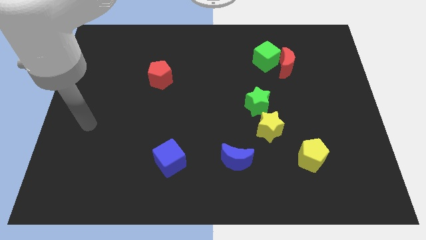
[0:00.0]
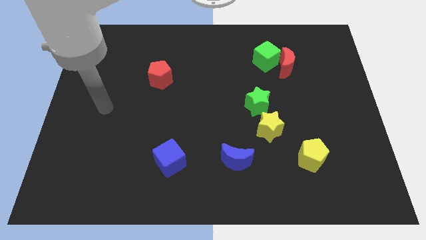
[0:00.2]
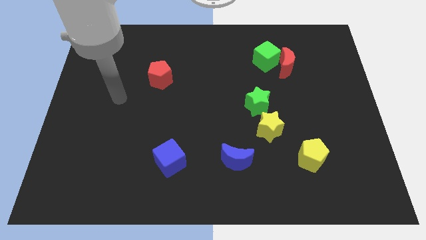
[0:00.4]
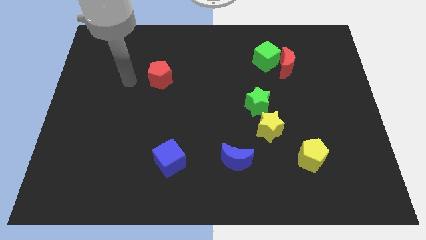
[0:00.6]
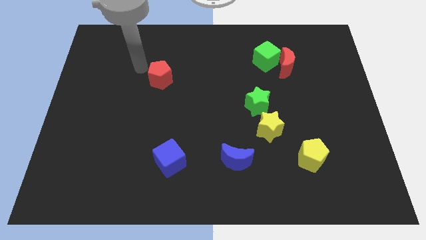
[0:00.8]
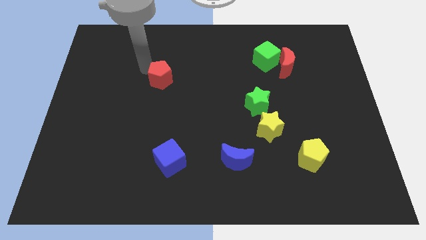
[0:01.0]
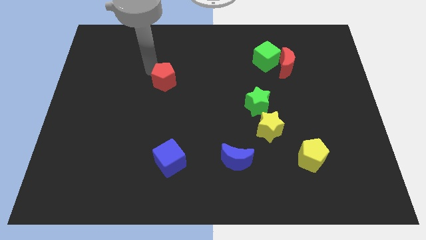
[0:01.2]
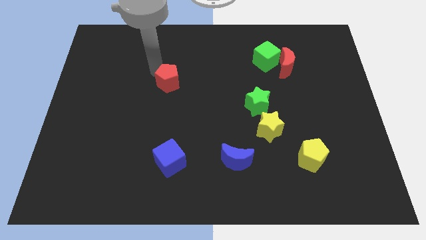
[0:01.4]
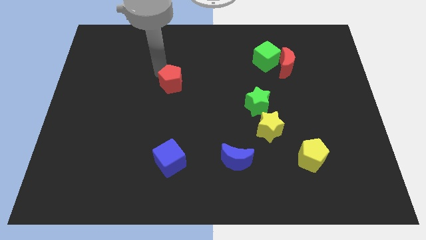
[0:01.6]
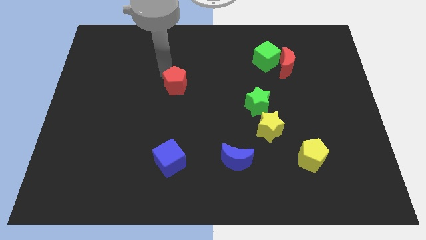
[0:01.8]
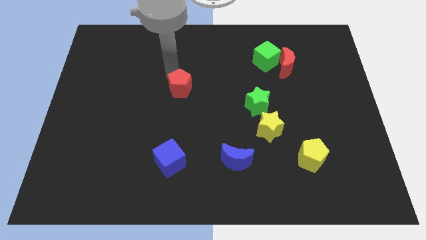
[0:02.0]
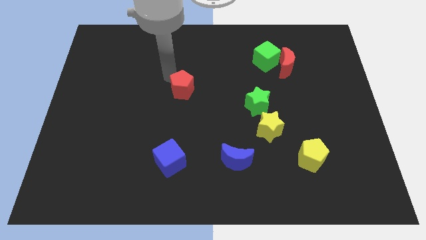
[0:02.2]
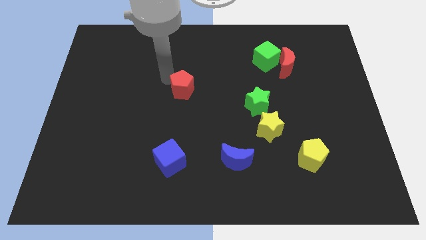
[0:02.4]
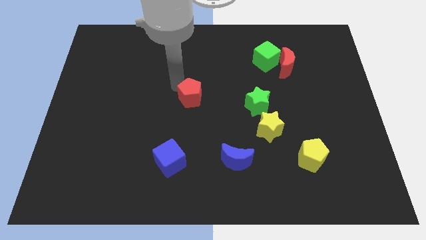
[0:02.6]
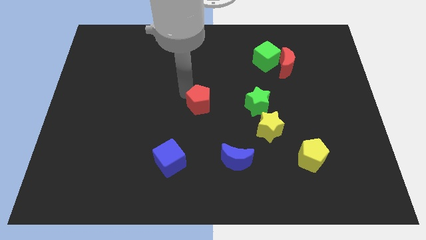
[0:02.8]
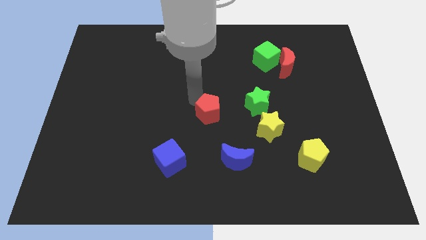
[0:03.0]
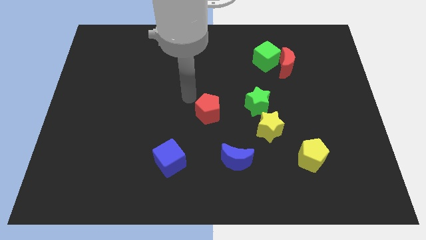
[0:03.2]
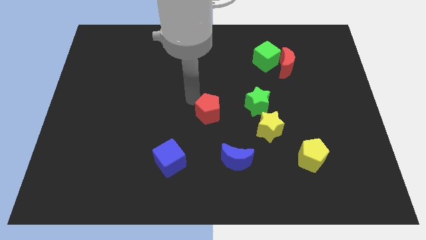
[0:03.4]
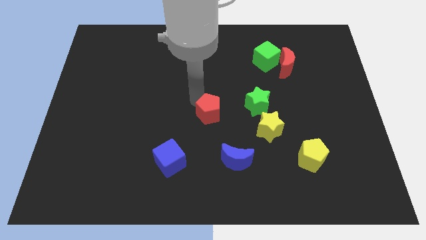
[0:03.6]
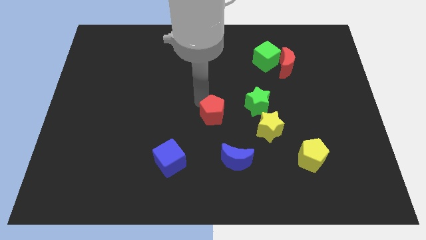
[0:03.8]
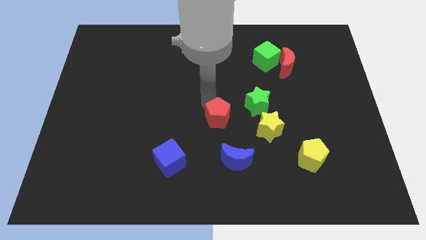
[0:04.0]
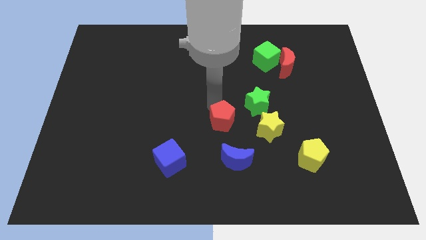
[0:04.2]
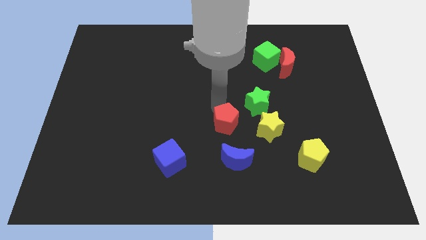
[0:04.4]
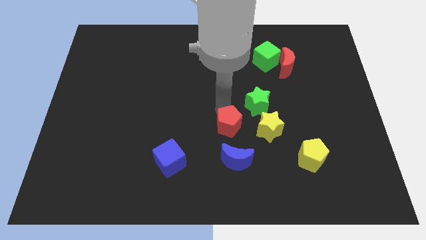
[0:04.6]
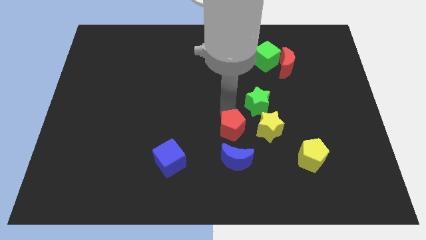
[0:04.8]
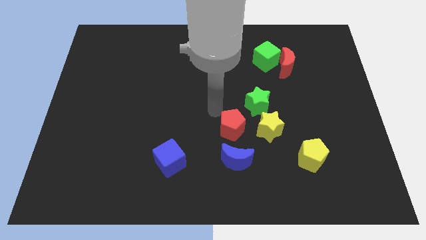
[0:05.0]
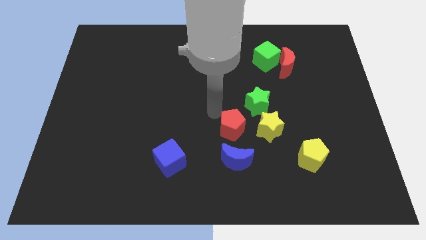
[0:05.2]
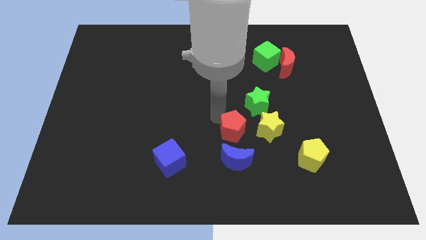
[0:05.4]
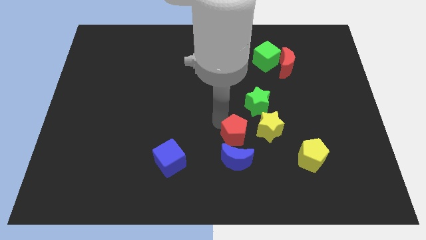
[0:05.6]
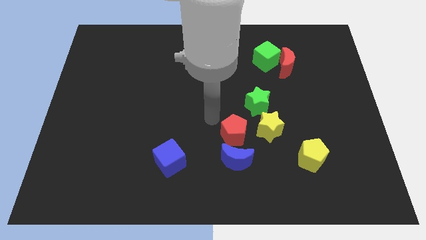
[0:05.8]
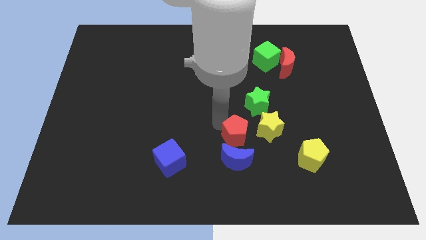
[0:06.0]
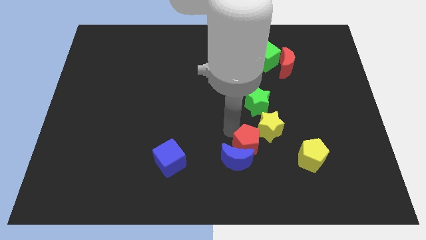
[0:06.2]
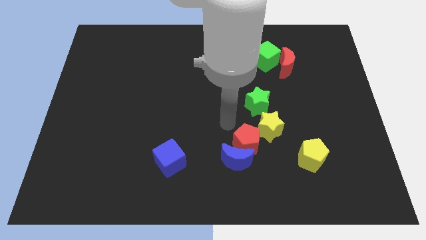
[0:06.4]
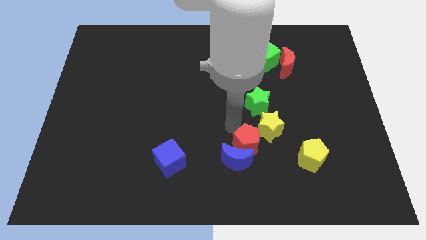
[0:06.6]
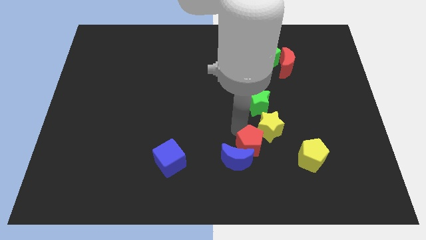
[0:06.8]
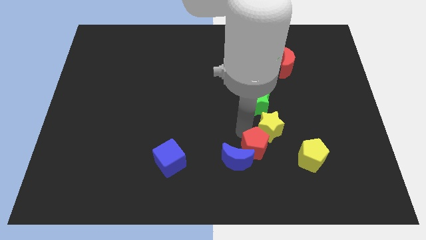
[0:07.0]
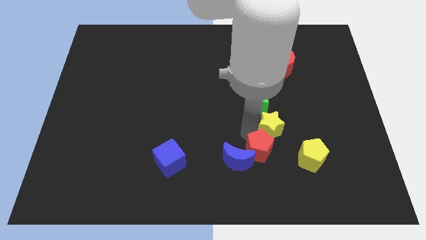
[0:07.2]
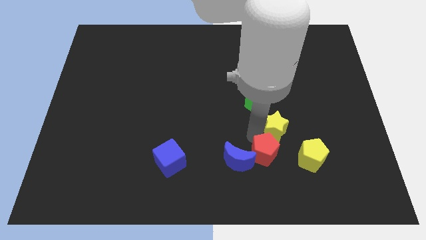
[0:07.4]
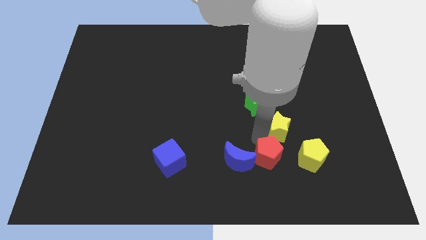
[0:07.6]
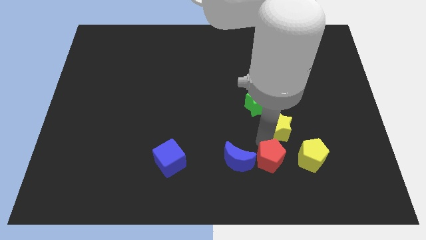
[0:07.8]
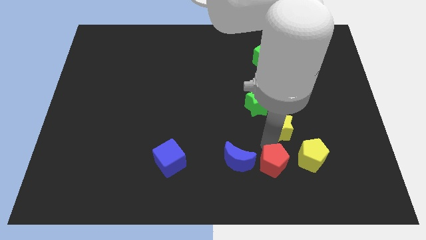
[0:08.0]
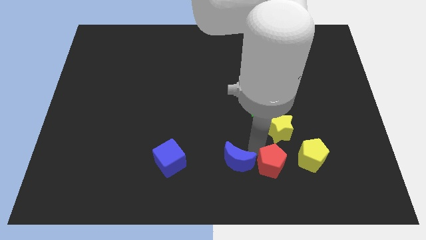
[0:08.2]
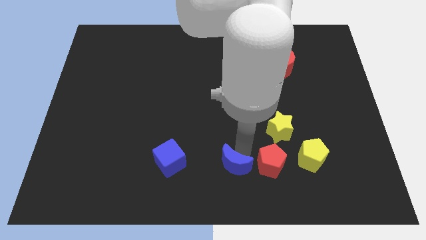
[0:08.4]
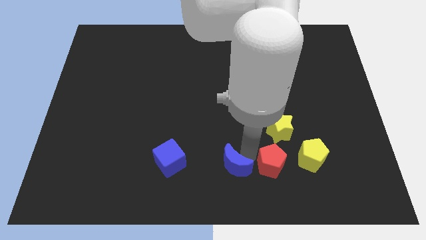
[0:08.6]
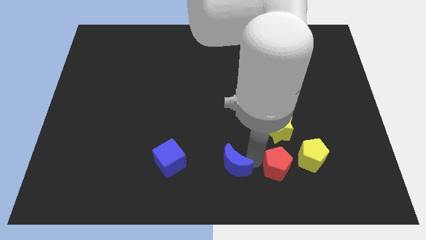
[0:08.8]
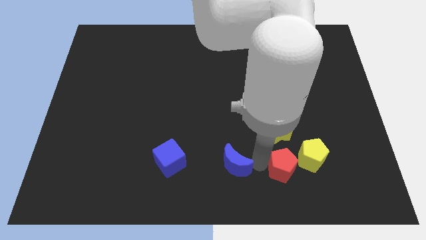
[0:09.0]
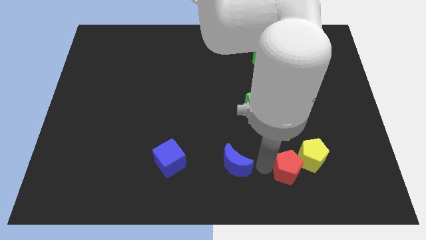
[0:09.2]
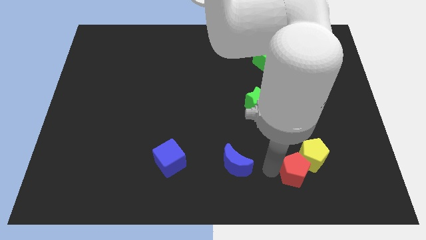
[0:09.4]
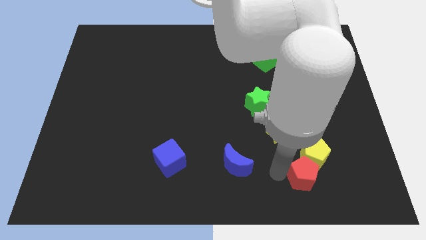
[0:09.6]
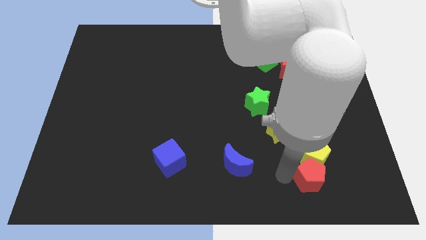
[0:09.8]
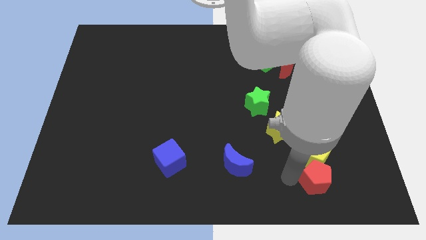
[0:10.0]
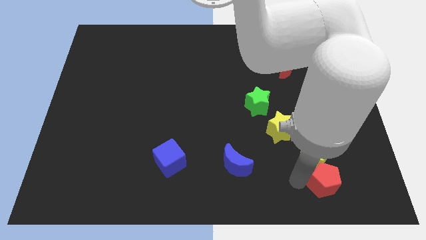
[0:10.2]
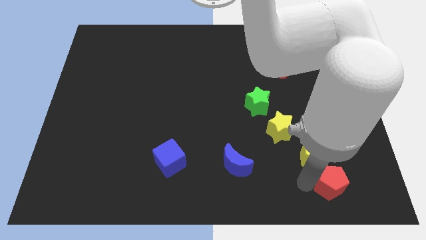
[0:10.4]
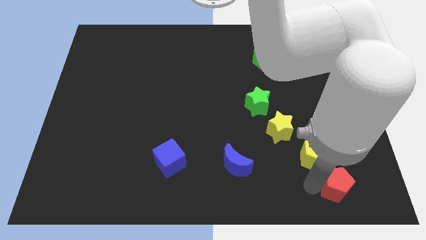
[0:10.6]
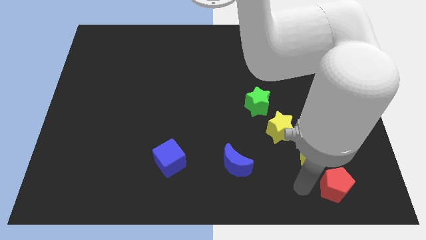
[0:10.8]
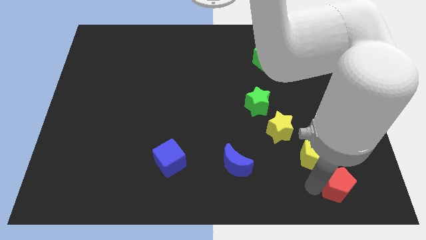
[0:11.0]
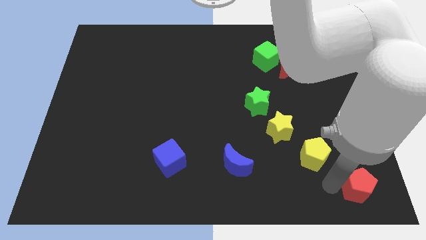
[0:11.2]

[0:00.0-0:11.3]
move the red pentagon to the bottom right corner
